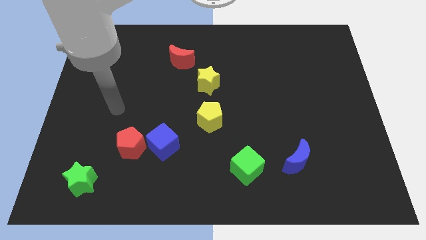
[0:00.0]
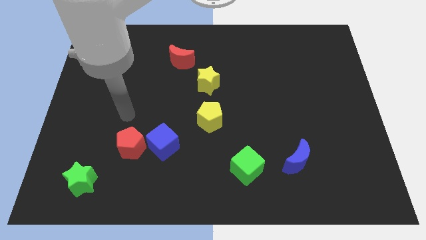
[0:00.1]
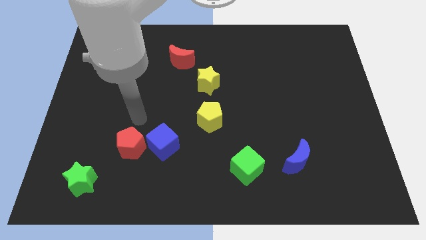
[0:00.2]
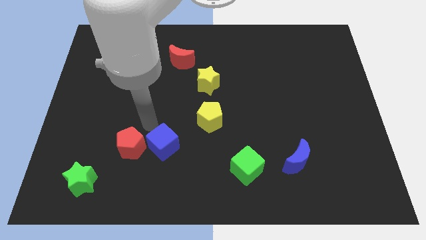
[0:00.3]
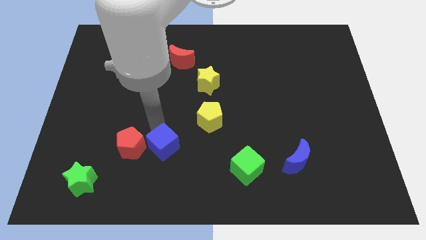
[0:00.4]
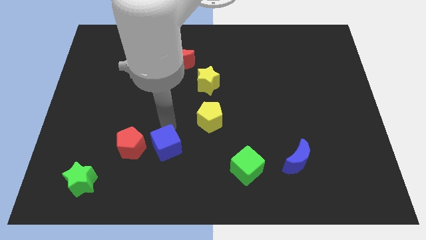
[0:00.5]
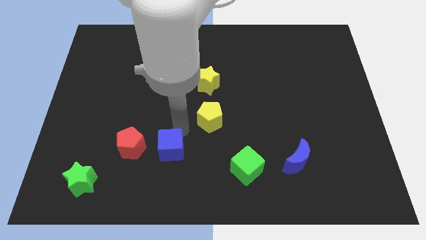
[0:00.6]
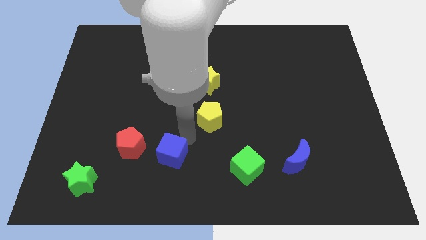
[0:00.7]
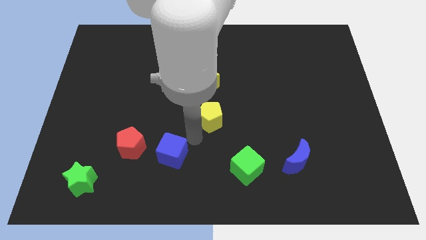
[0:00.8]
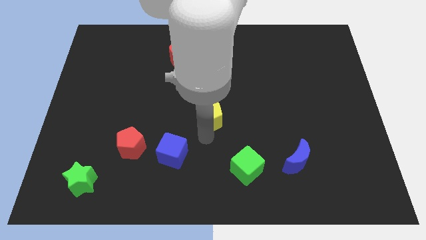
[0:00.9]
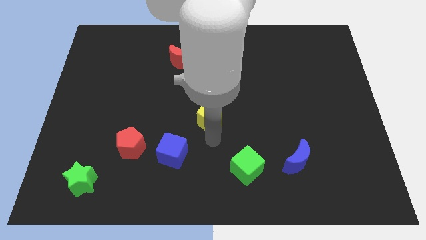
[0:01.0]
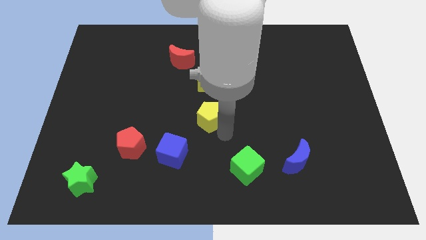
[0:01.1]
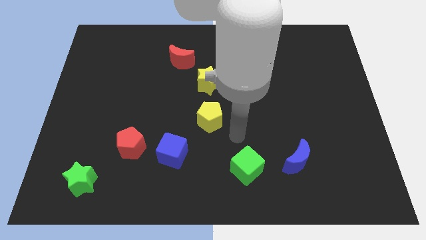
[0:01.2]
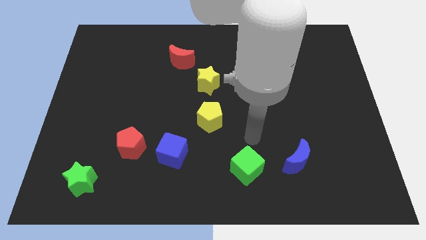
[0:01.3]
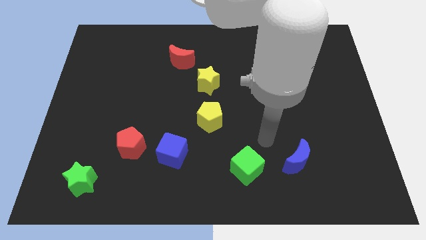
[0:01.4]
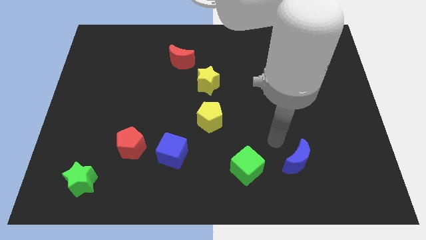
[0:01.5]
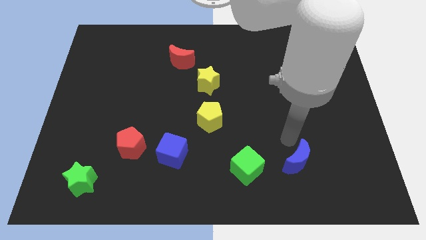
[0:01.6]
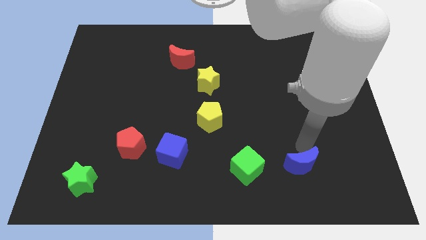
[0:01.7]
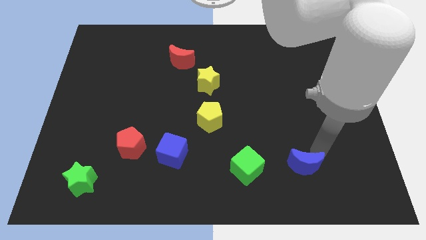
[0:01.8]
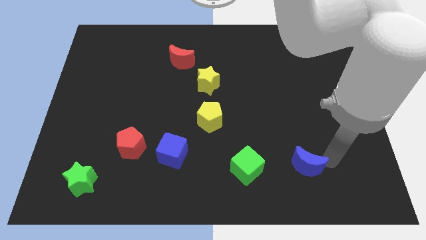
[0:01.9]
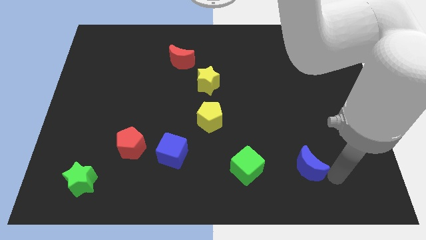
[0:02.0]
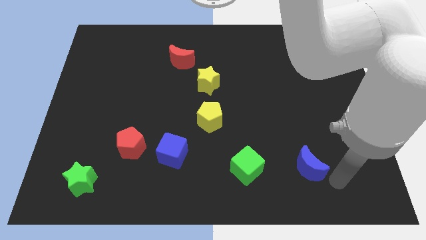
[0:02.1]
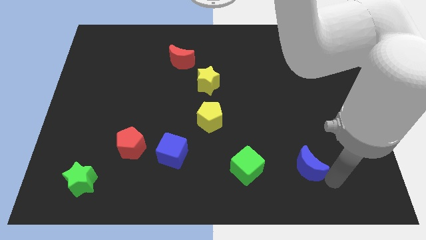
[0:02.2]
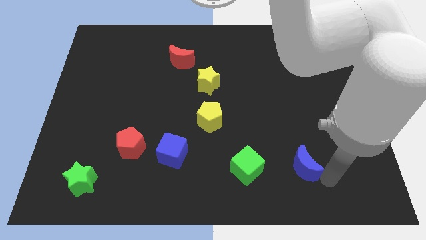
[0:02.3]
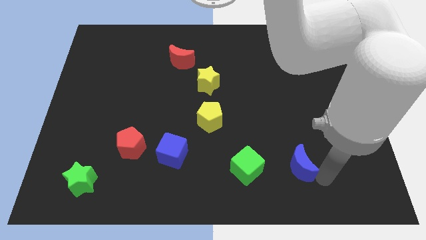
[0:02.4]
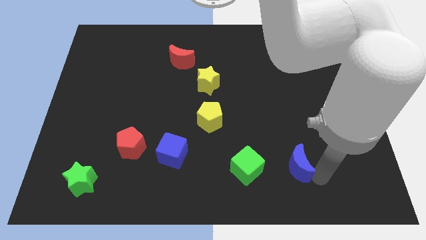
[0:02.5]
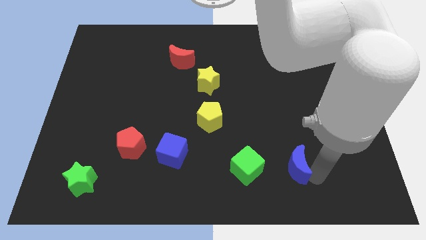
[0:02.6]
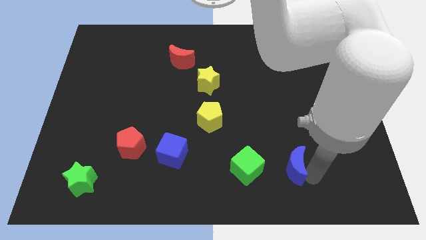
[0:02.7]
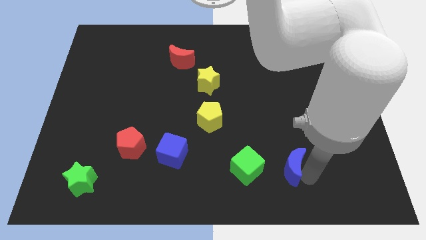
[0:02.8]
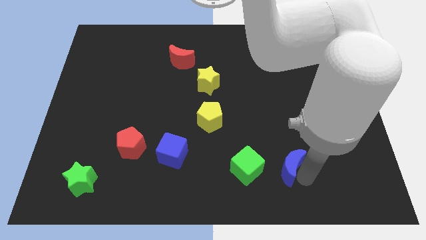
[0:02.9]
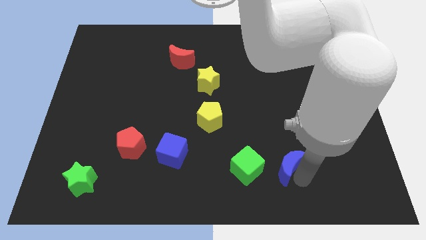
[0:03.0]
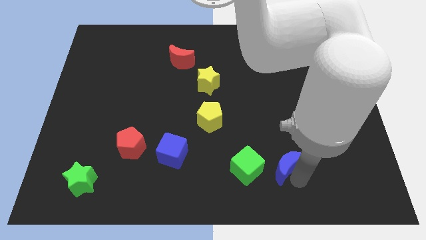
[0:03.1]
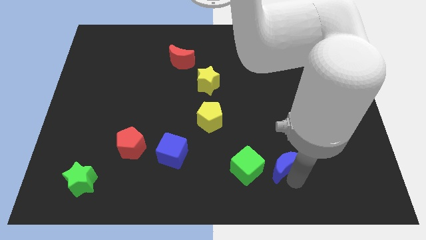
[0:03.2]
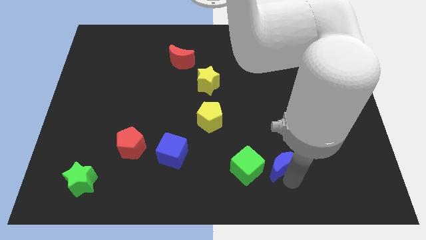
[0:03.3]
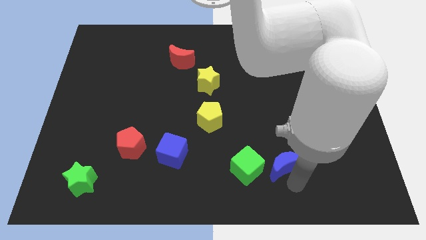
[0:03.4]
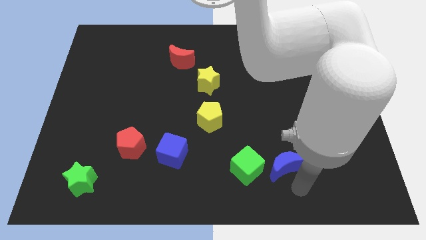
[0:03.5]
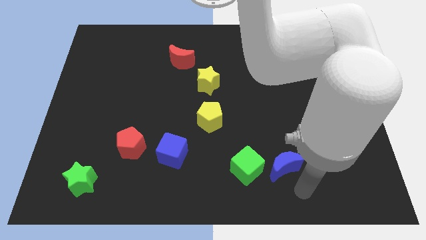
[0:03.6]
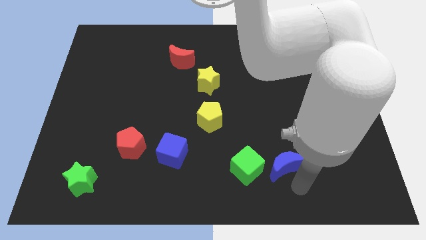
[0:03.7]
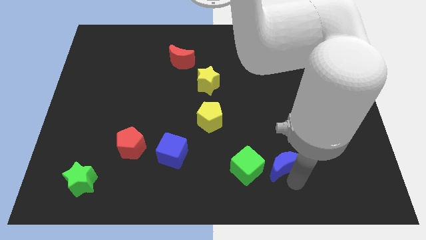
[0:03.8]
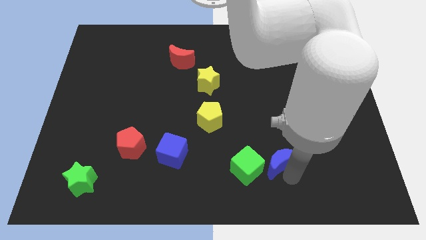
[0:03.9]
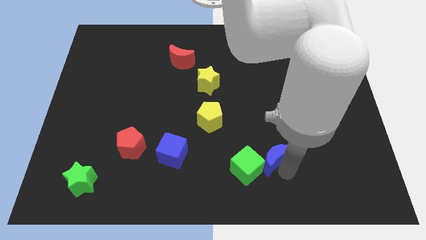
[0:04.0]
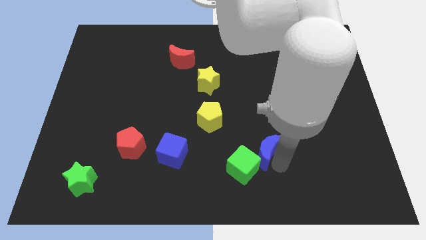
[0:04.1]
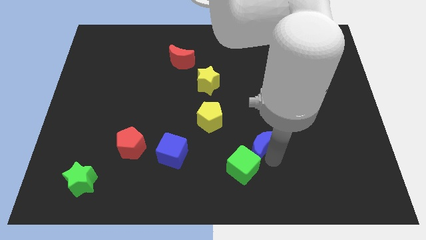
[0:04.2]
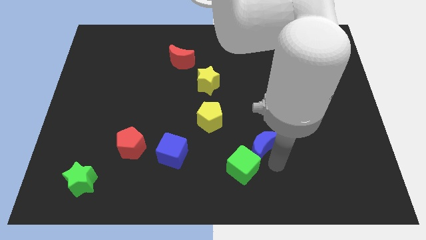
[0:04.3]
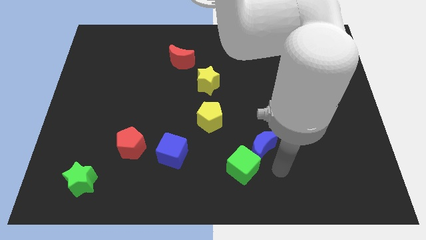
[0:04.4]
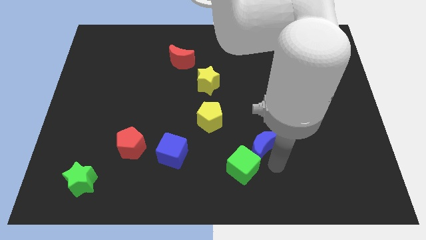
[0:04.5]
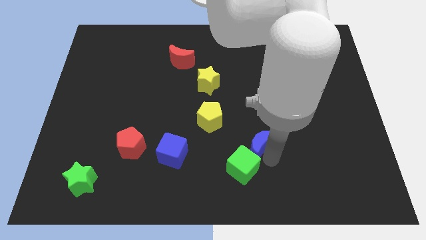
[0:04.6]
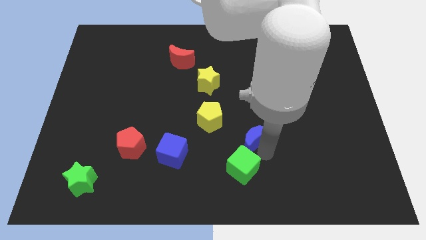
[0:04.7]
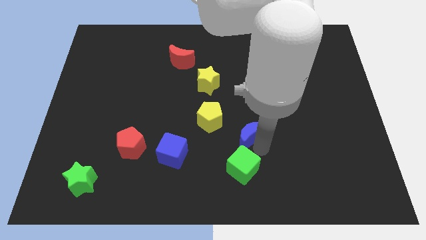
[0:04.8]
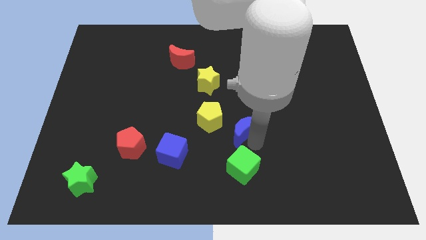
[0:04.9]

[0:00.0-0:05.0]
put the blue moon to the center of the board
